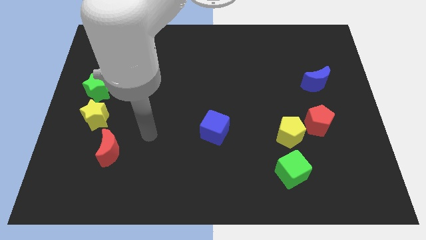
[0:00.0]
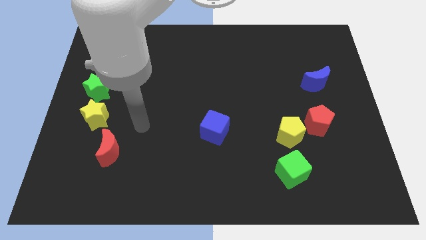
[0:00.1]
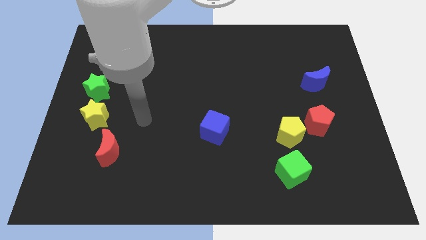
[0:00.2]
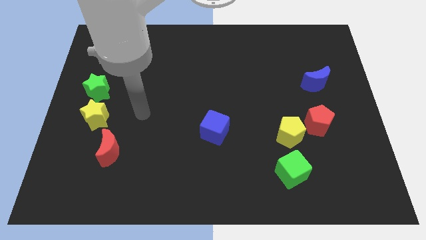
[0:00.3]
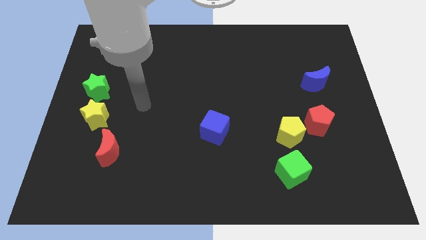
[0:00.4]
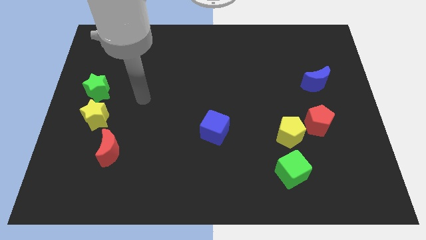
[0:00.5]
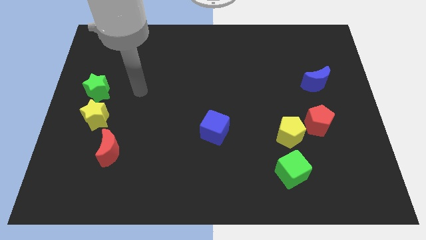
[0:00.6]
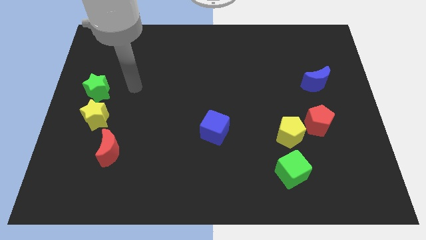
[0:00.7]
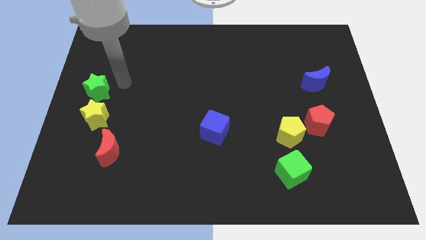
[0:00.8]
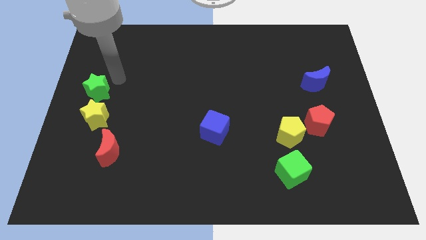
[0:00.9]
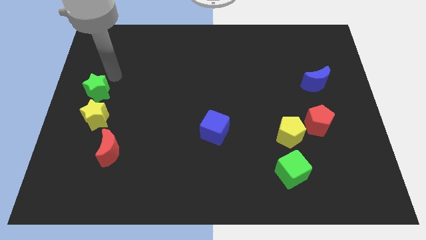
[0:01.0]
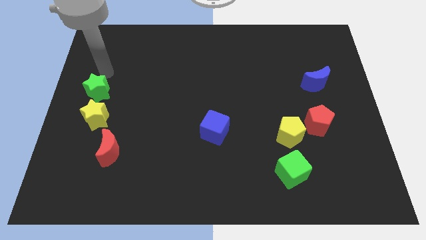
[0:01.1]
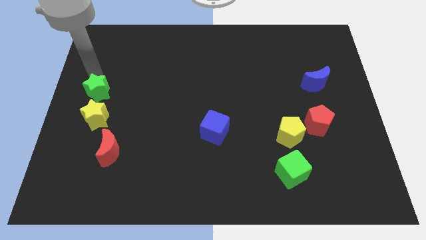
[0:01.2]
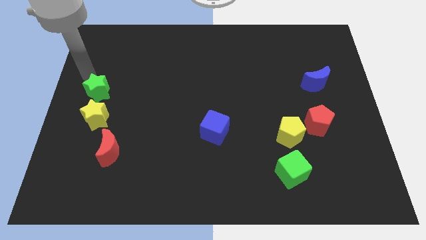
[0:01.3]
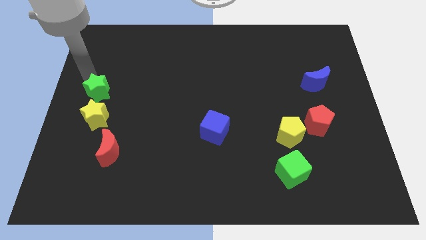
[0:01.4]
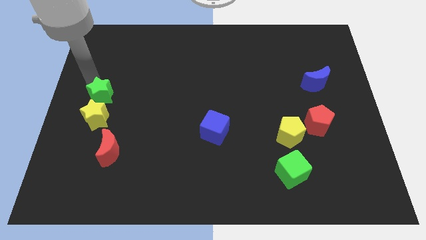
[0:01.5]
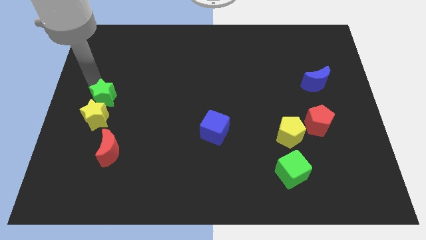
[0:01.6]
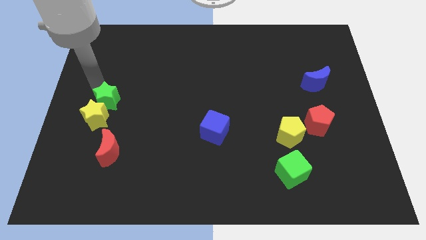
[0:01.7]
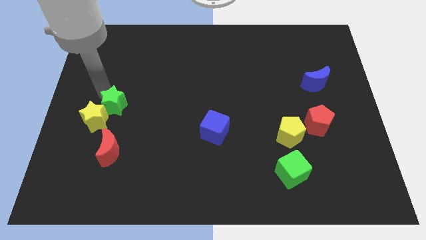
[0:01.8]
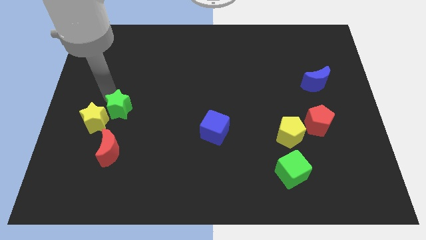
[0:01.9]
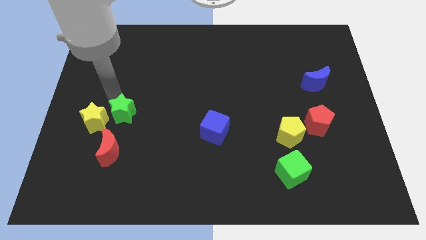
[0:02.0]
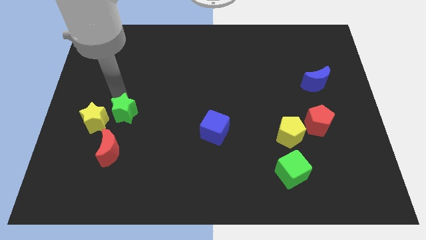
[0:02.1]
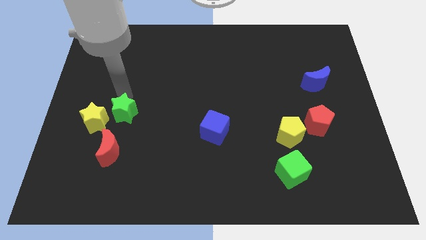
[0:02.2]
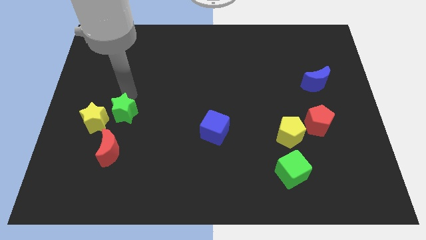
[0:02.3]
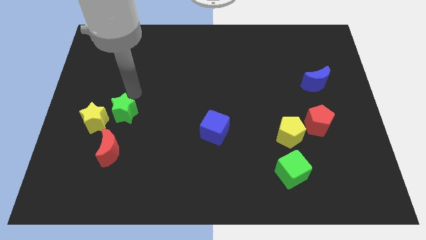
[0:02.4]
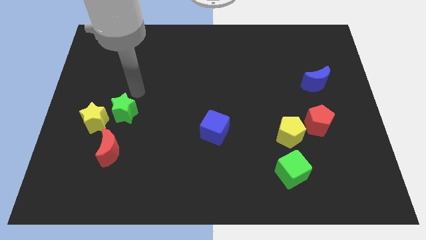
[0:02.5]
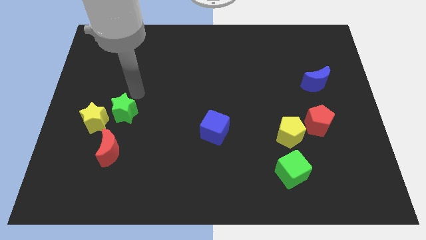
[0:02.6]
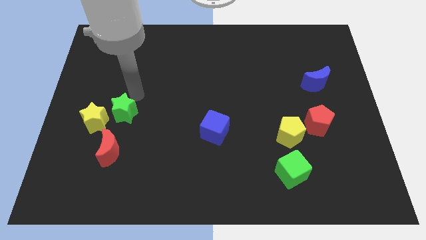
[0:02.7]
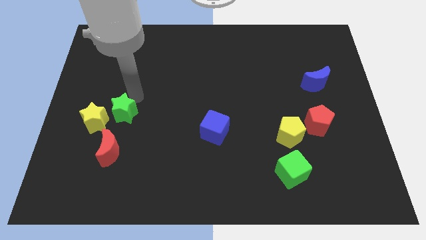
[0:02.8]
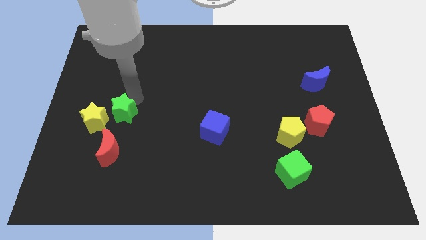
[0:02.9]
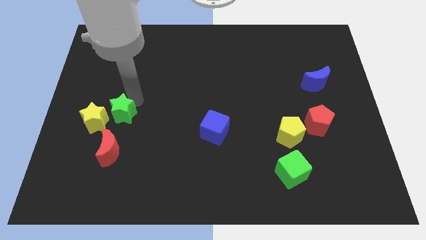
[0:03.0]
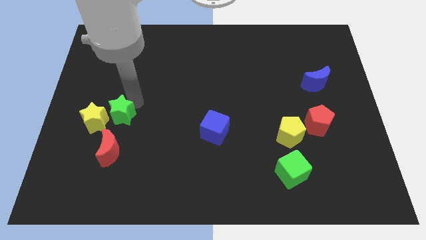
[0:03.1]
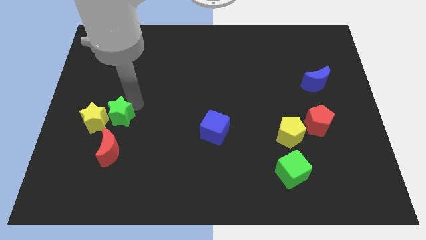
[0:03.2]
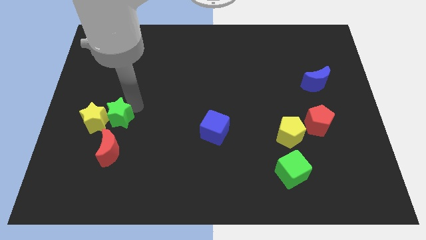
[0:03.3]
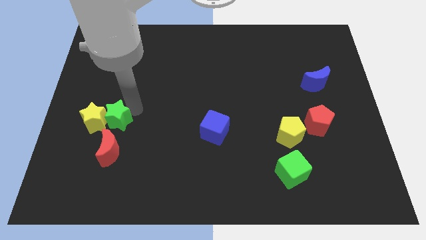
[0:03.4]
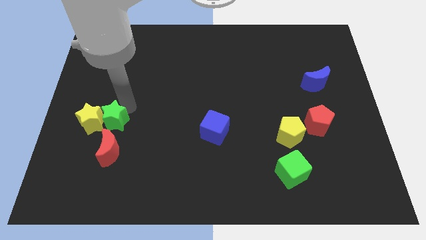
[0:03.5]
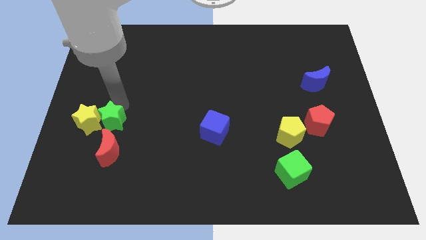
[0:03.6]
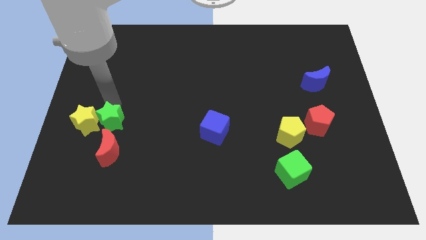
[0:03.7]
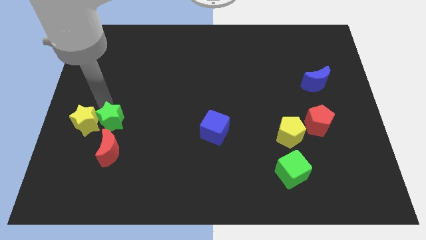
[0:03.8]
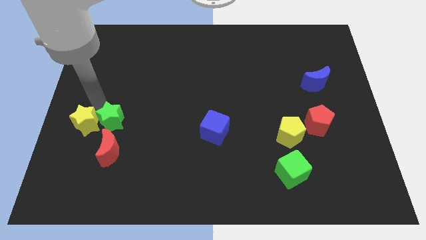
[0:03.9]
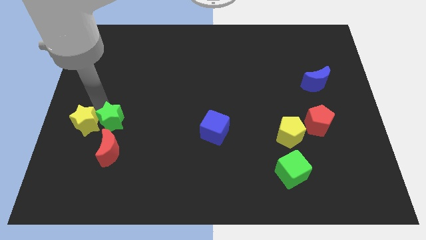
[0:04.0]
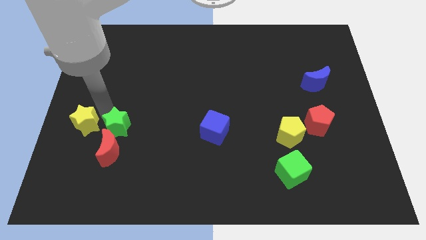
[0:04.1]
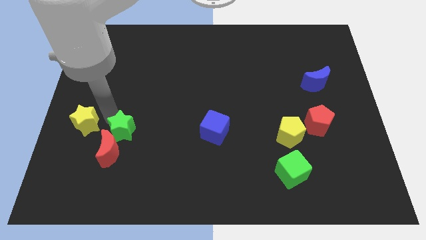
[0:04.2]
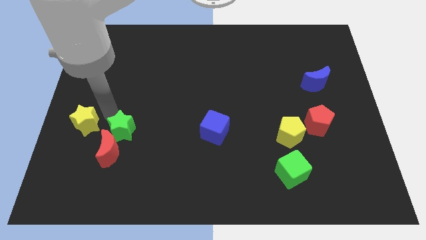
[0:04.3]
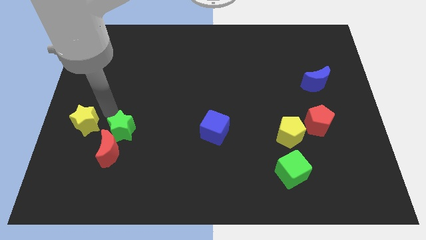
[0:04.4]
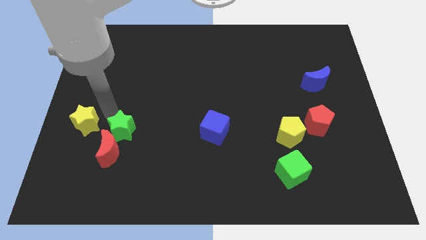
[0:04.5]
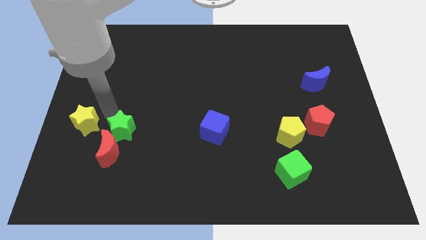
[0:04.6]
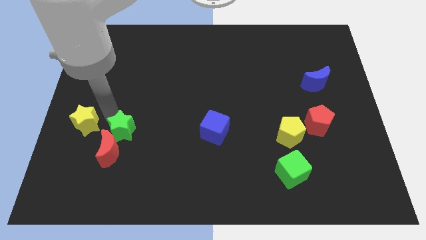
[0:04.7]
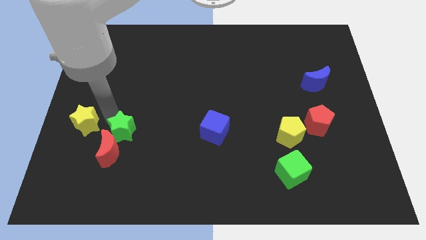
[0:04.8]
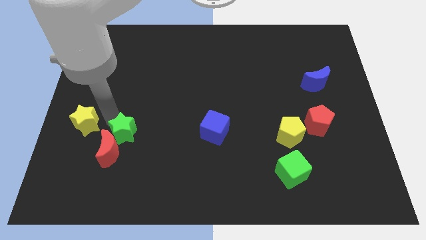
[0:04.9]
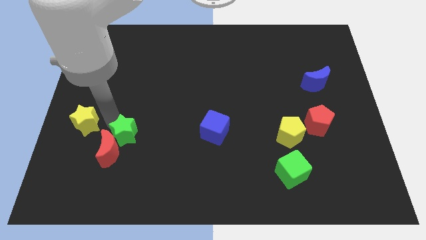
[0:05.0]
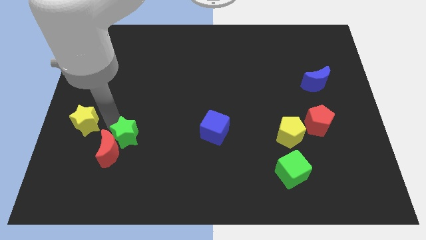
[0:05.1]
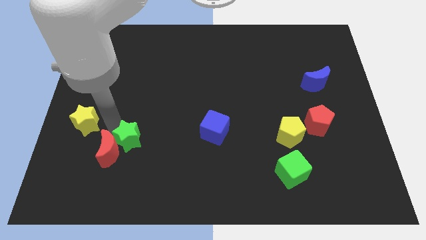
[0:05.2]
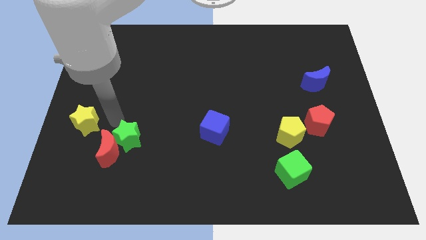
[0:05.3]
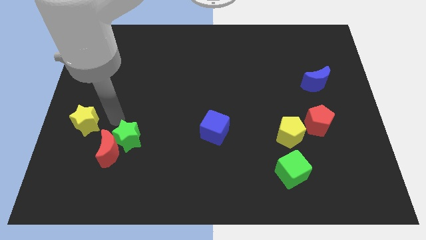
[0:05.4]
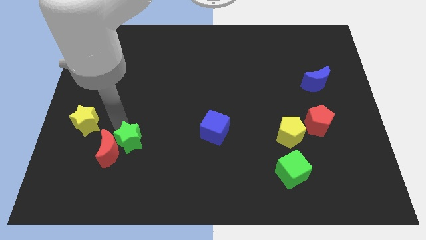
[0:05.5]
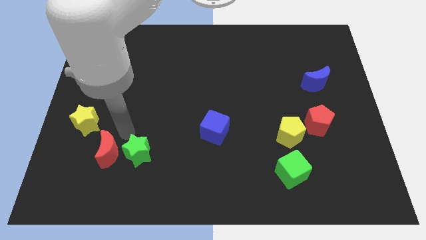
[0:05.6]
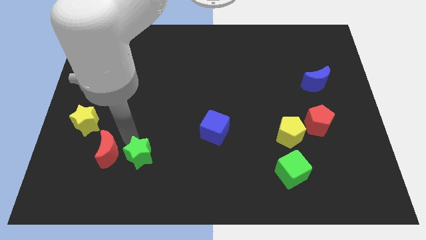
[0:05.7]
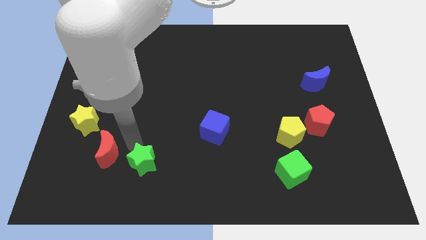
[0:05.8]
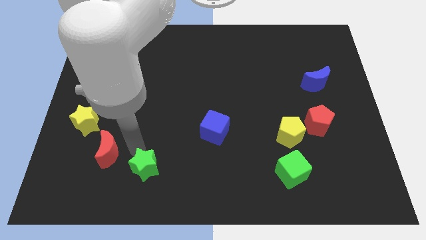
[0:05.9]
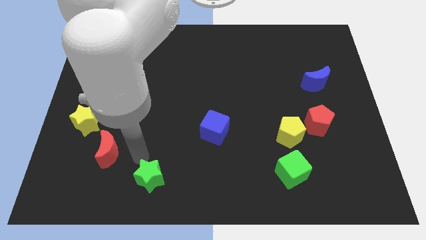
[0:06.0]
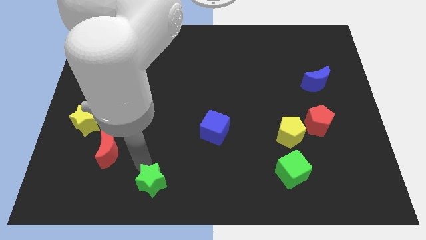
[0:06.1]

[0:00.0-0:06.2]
put the green star to the bottom

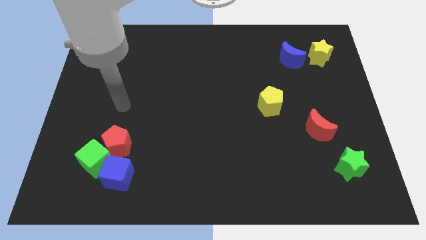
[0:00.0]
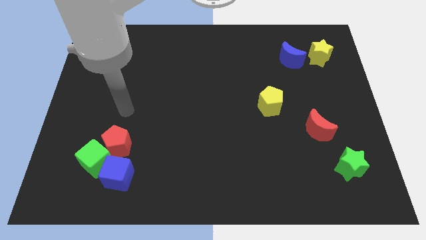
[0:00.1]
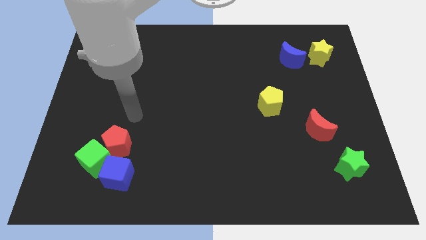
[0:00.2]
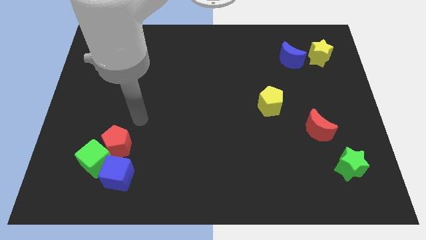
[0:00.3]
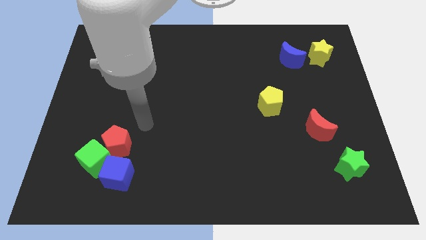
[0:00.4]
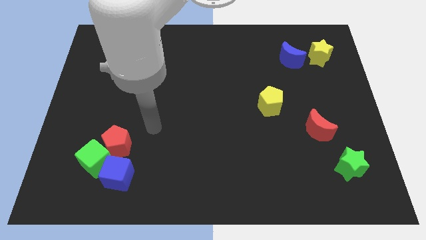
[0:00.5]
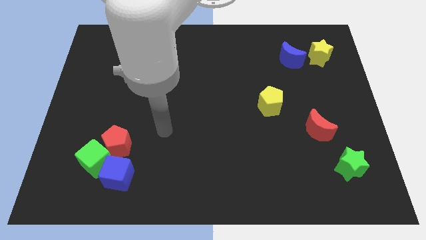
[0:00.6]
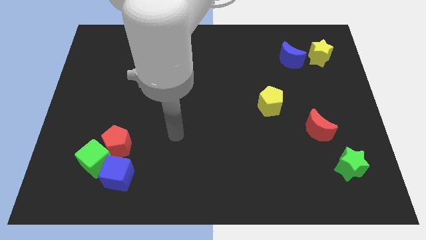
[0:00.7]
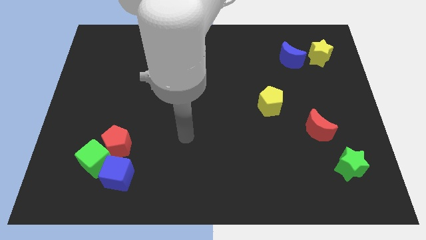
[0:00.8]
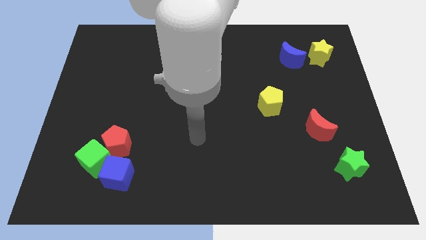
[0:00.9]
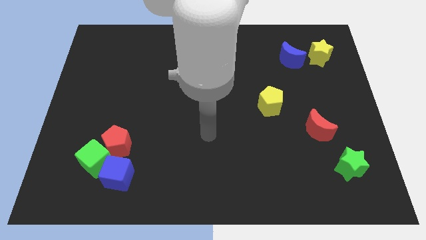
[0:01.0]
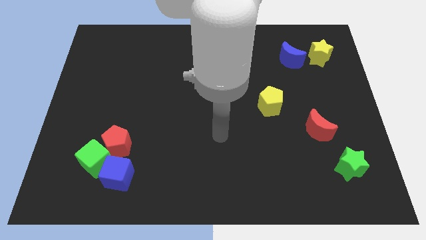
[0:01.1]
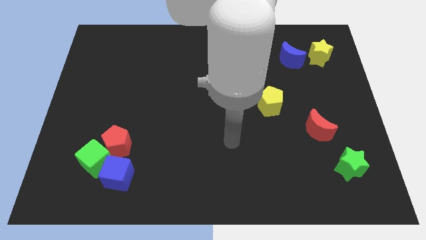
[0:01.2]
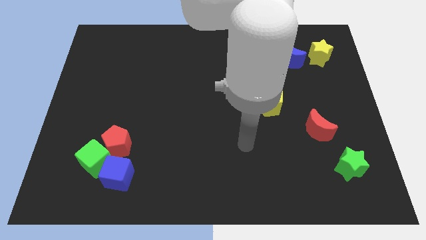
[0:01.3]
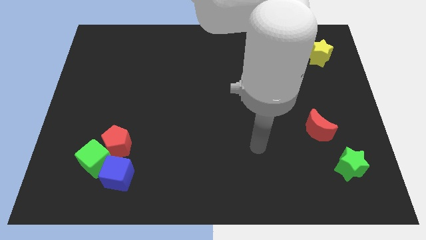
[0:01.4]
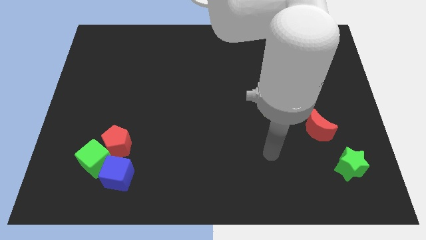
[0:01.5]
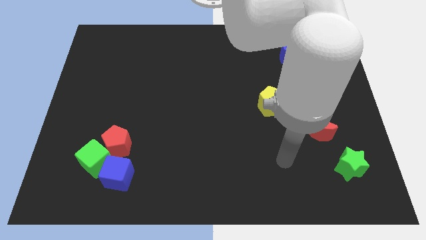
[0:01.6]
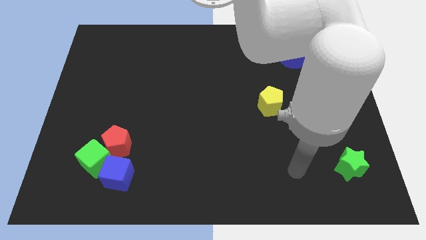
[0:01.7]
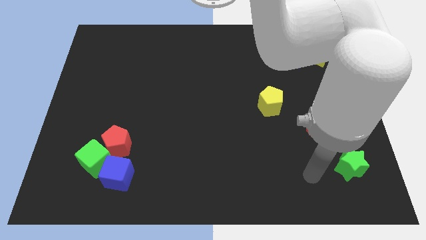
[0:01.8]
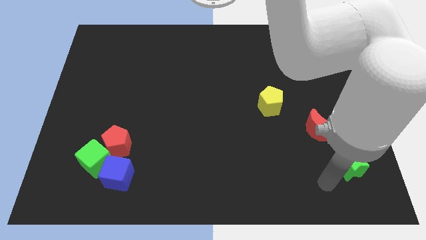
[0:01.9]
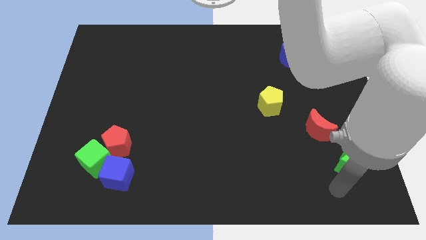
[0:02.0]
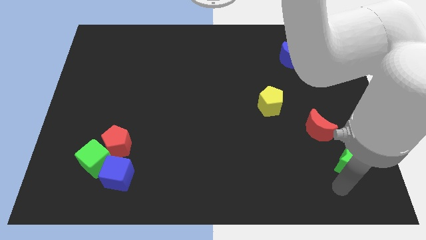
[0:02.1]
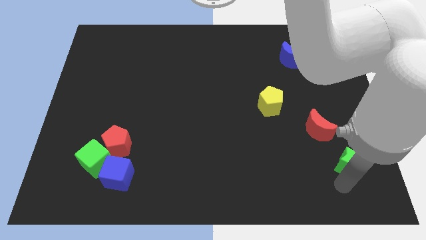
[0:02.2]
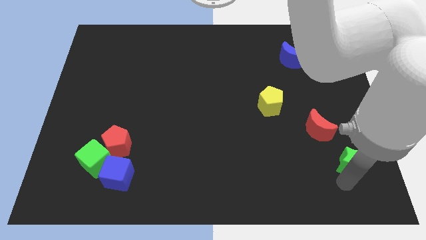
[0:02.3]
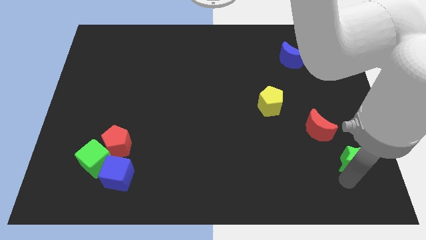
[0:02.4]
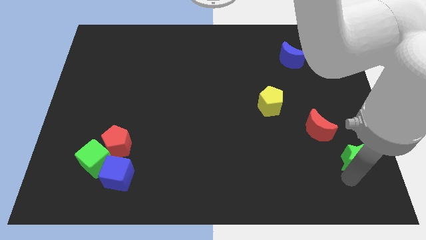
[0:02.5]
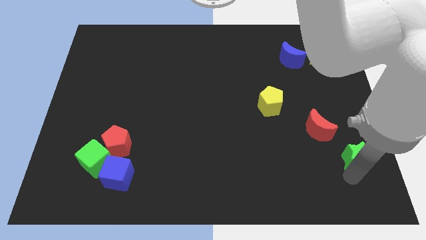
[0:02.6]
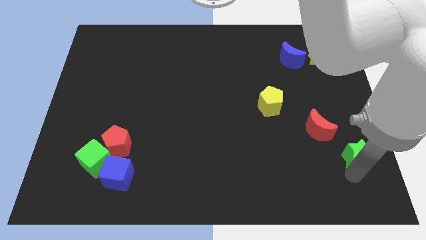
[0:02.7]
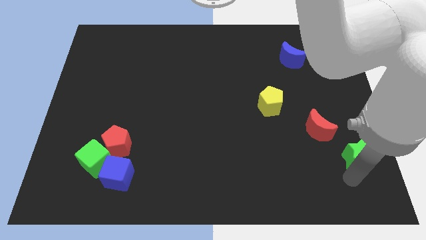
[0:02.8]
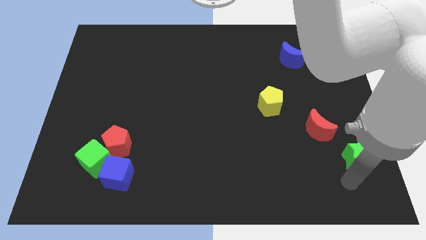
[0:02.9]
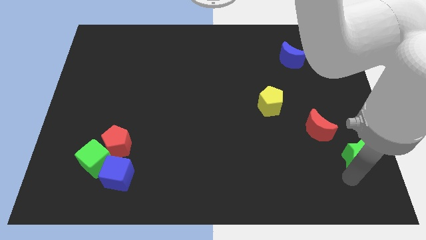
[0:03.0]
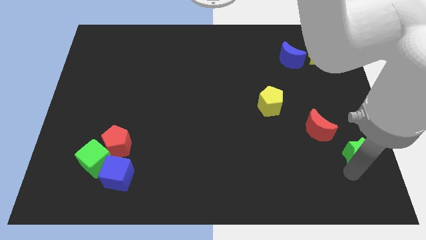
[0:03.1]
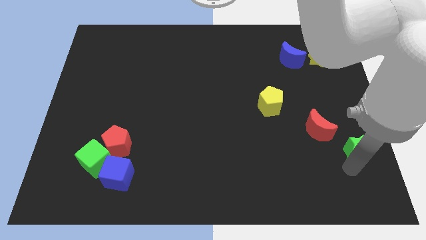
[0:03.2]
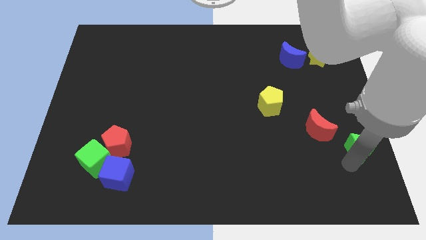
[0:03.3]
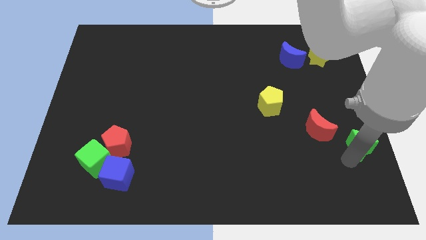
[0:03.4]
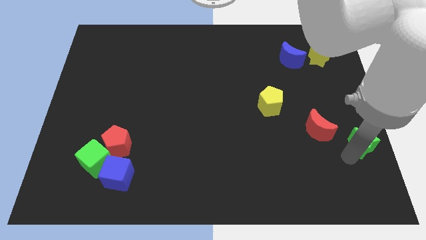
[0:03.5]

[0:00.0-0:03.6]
slide the green star to the right side
